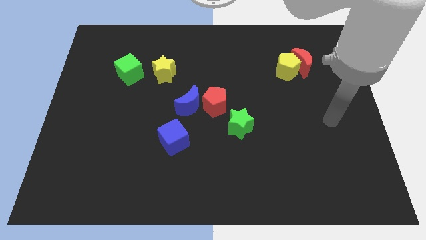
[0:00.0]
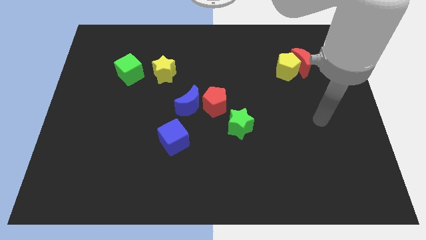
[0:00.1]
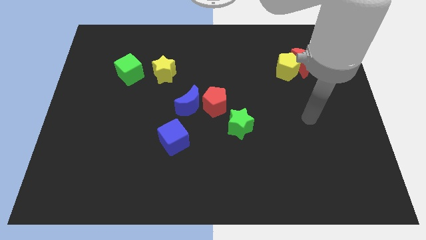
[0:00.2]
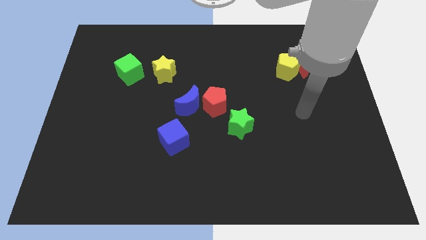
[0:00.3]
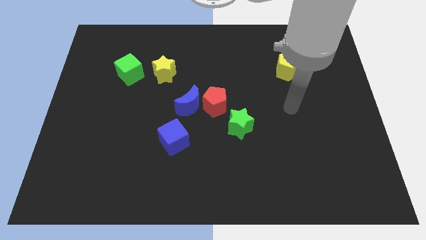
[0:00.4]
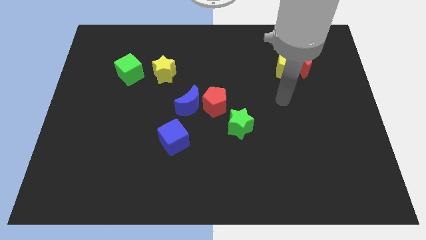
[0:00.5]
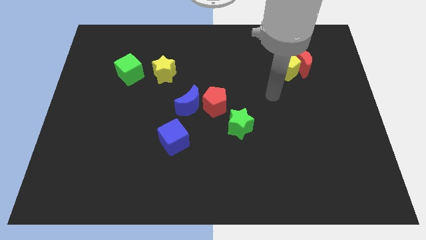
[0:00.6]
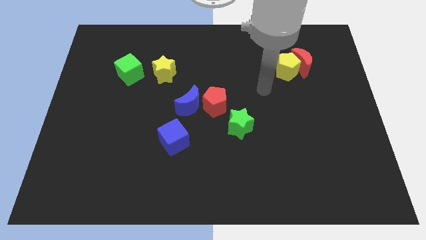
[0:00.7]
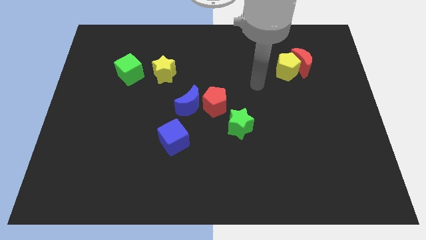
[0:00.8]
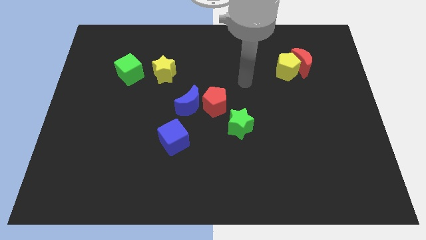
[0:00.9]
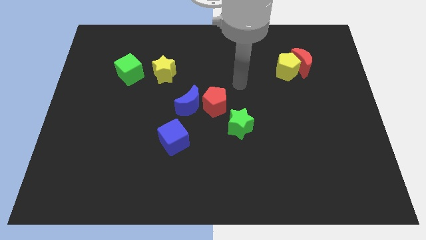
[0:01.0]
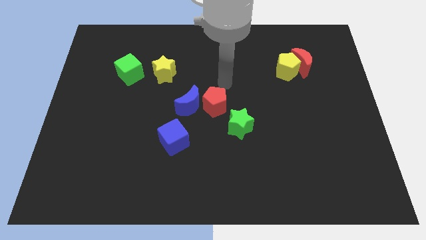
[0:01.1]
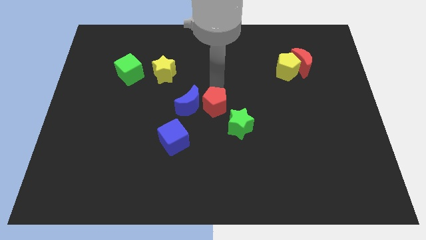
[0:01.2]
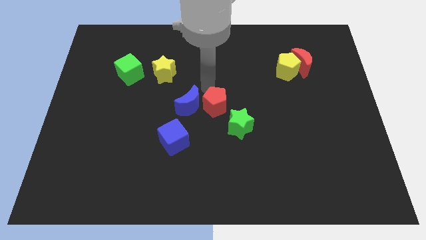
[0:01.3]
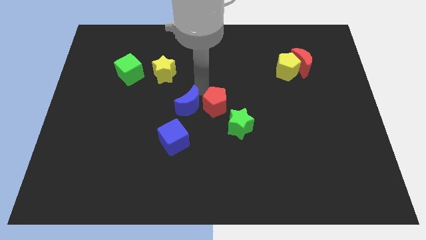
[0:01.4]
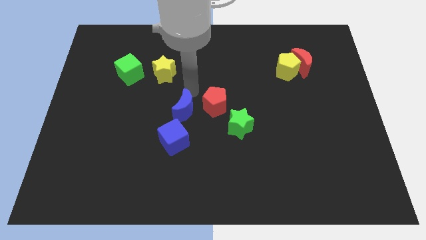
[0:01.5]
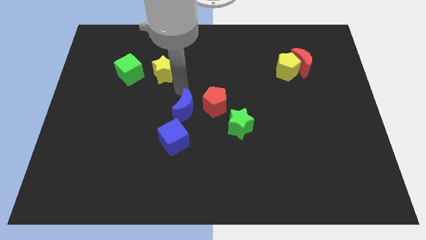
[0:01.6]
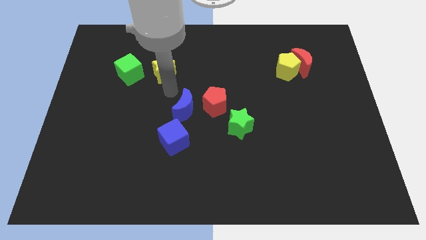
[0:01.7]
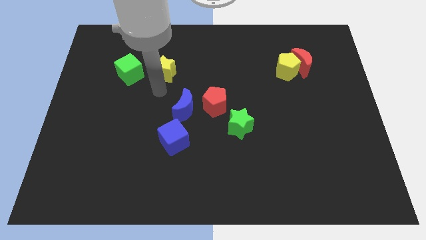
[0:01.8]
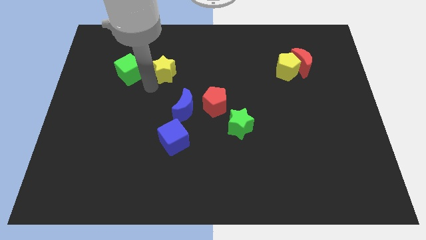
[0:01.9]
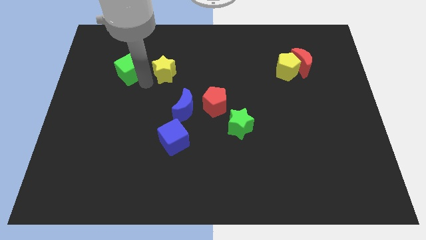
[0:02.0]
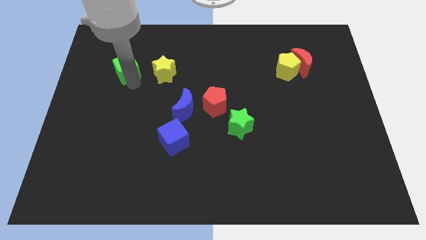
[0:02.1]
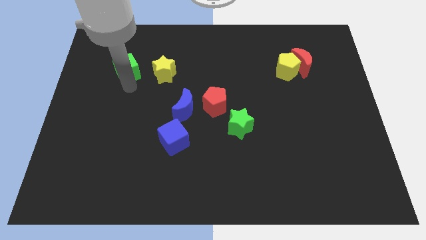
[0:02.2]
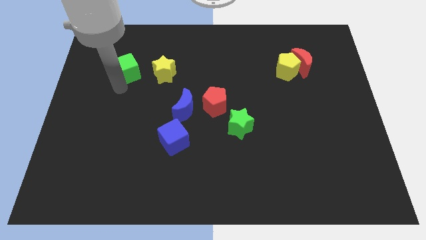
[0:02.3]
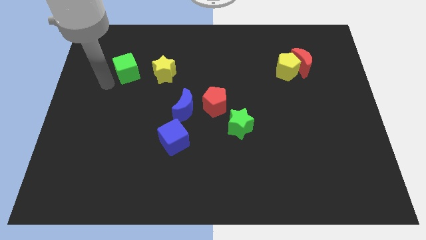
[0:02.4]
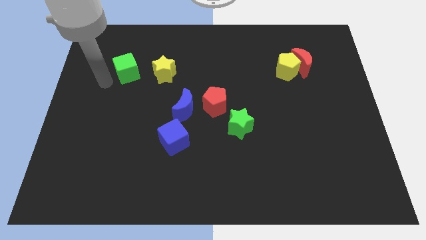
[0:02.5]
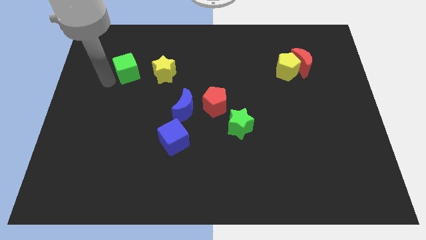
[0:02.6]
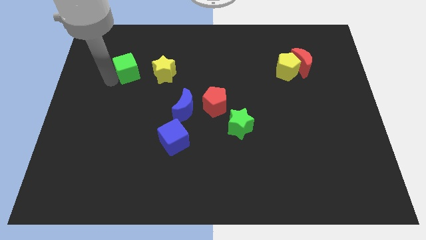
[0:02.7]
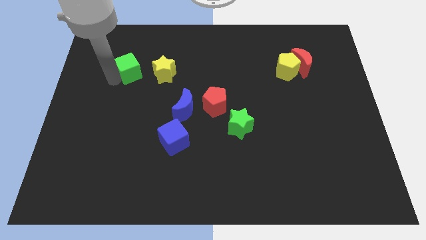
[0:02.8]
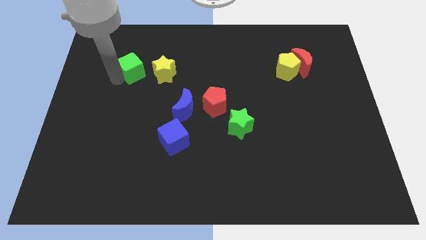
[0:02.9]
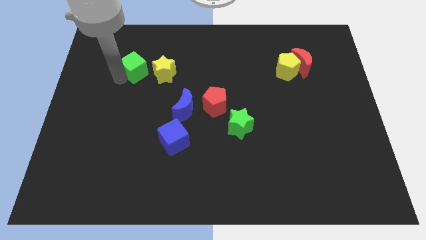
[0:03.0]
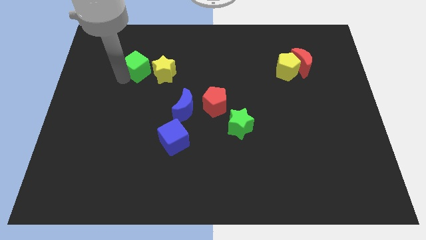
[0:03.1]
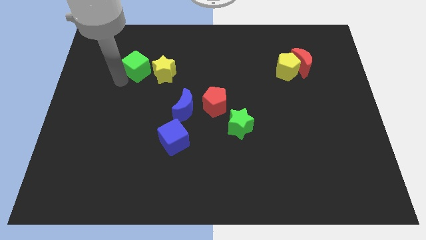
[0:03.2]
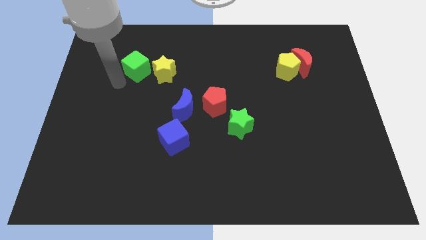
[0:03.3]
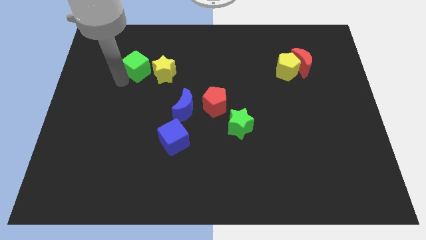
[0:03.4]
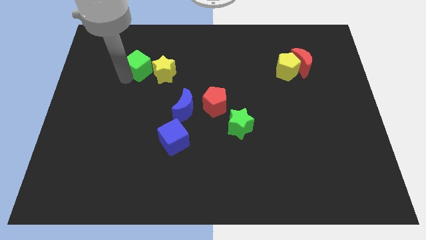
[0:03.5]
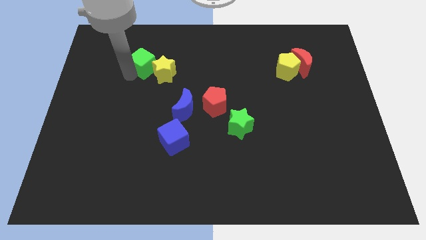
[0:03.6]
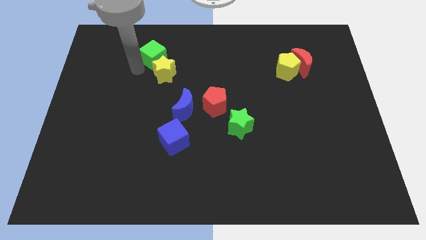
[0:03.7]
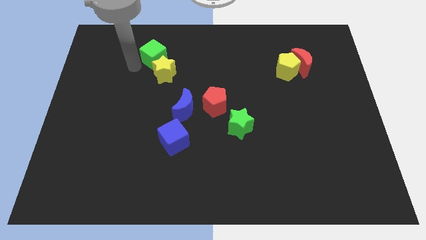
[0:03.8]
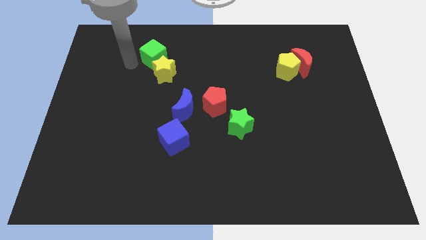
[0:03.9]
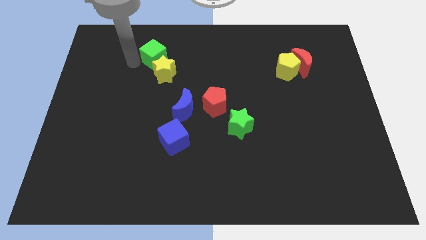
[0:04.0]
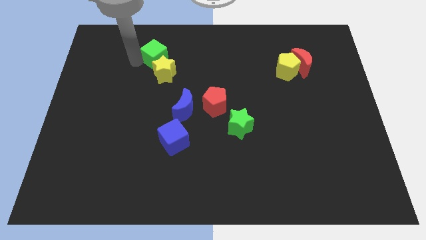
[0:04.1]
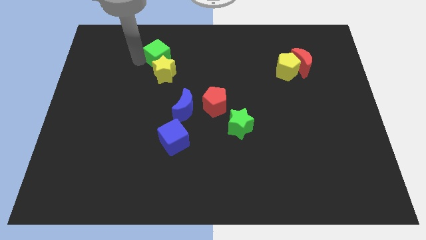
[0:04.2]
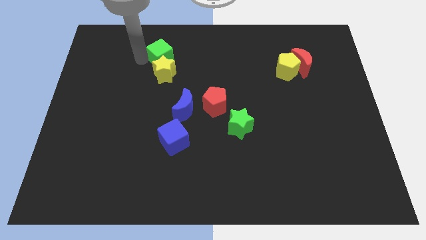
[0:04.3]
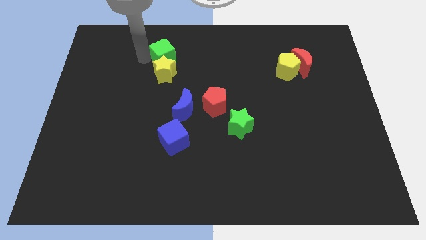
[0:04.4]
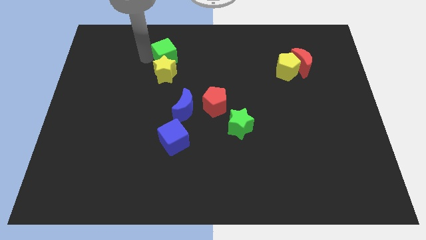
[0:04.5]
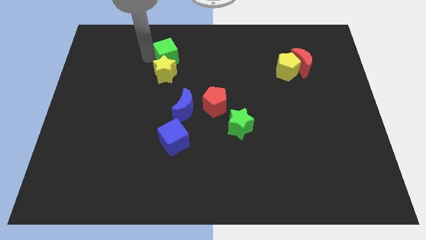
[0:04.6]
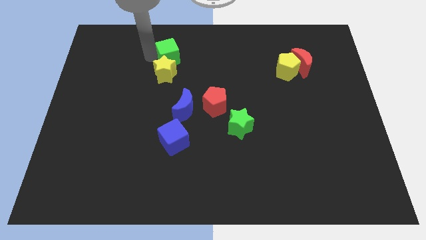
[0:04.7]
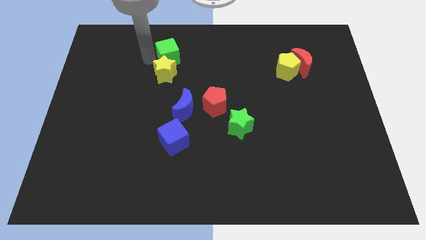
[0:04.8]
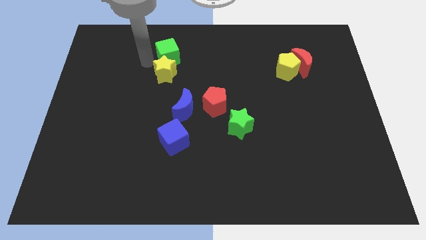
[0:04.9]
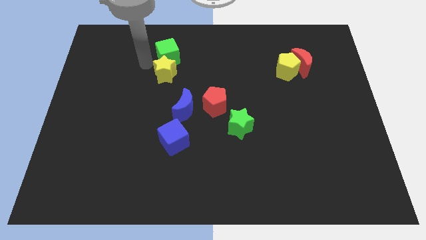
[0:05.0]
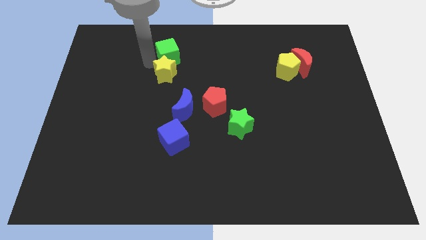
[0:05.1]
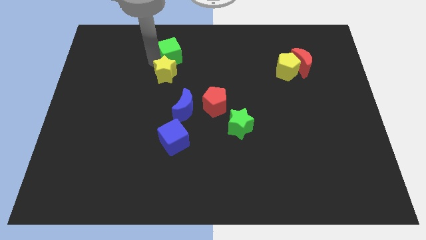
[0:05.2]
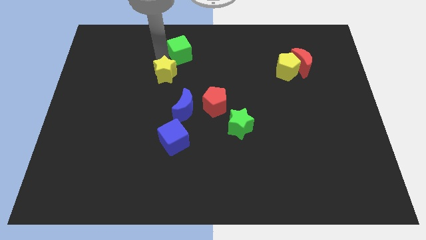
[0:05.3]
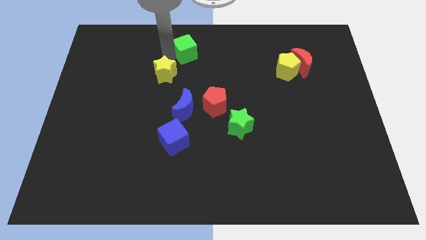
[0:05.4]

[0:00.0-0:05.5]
push the green cube to the top side
